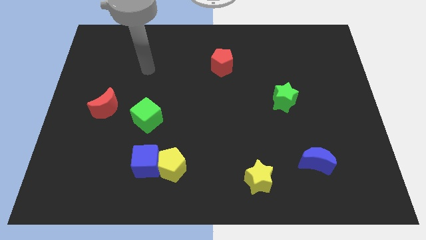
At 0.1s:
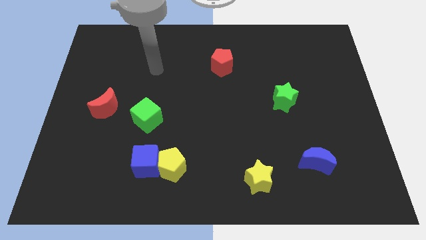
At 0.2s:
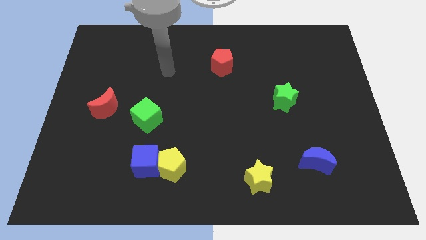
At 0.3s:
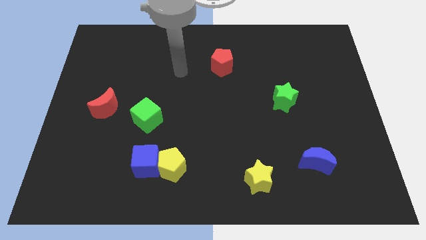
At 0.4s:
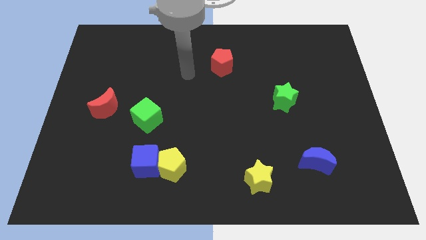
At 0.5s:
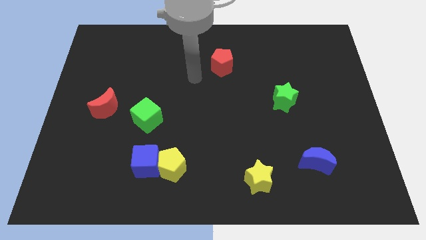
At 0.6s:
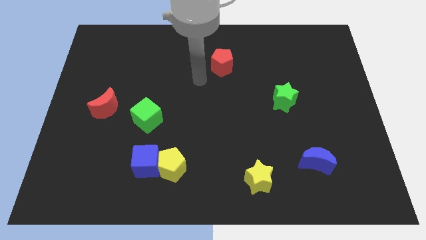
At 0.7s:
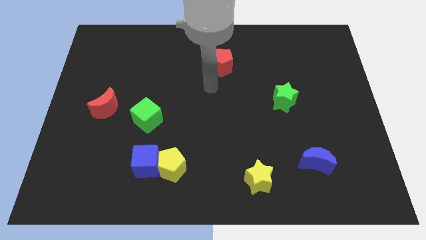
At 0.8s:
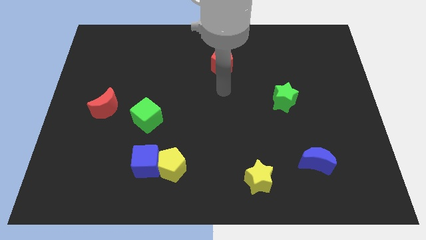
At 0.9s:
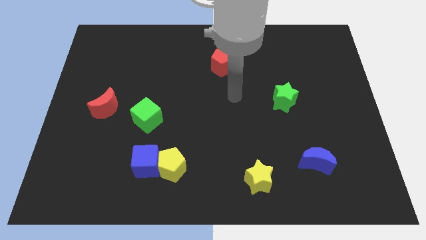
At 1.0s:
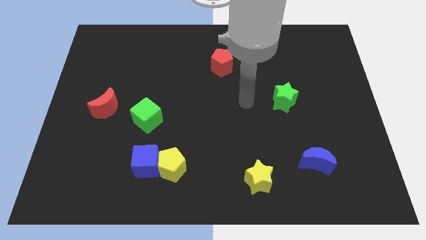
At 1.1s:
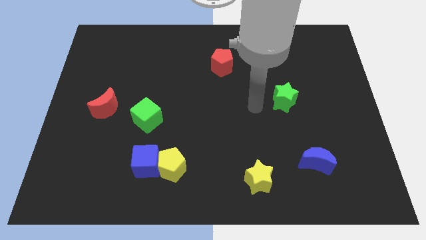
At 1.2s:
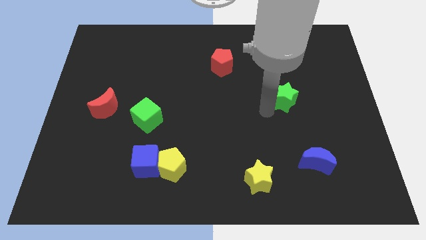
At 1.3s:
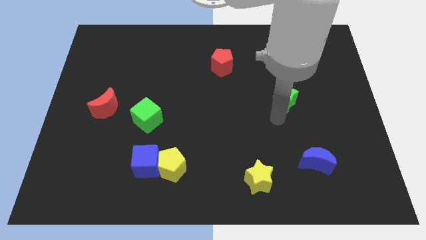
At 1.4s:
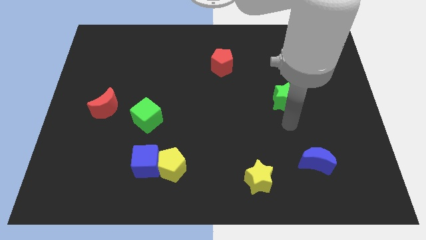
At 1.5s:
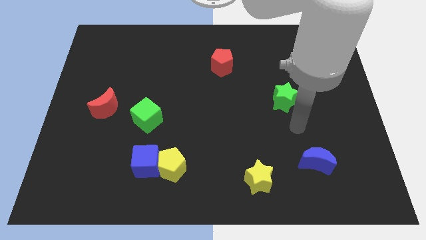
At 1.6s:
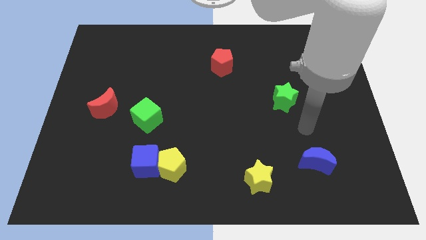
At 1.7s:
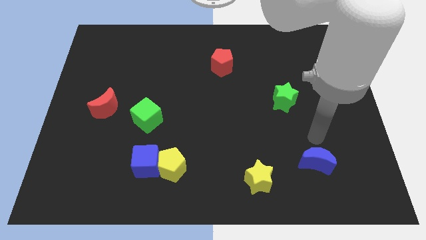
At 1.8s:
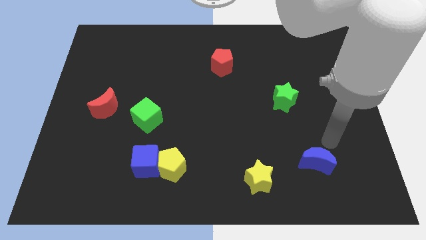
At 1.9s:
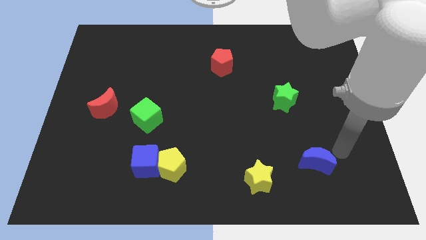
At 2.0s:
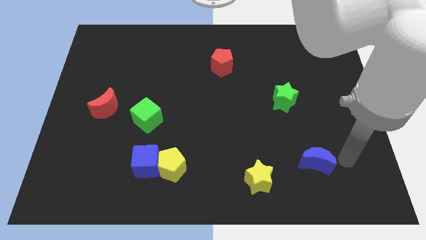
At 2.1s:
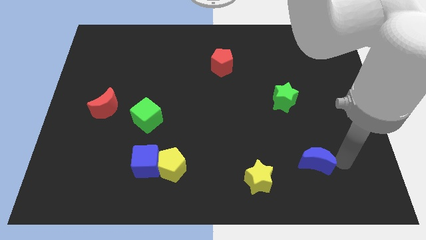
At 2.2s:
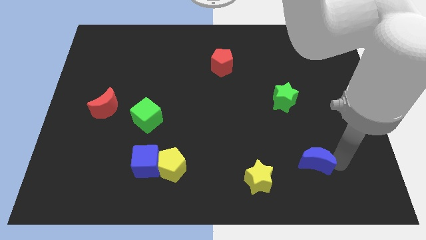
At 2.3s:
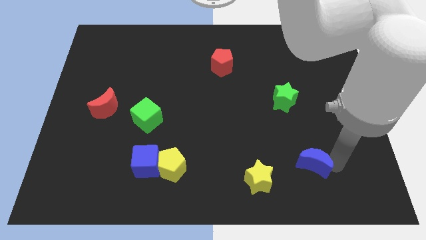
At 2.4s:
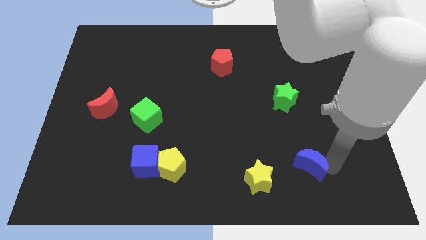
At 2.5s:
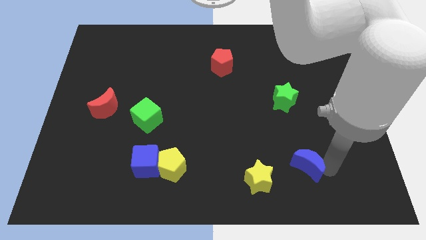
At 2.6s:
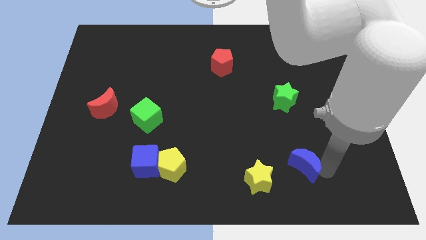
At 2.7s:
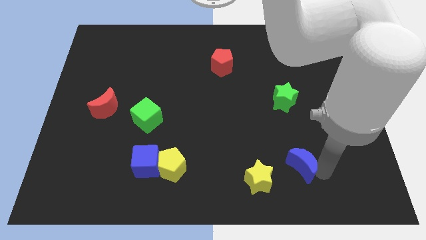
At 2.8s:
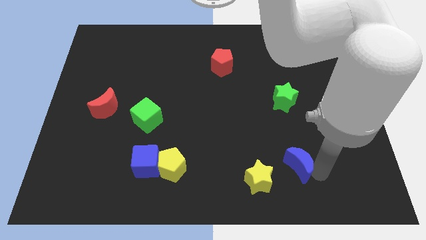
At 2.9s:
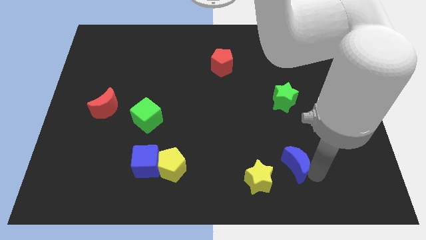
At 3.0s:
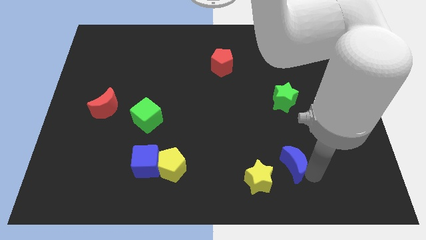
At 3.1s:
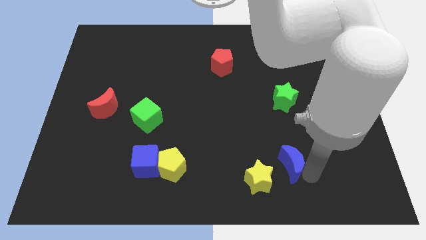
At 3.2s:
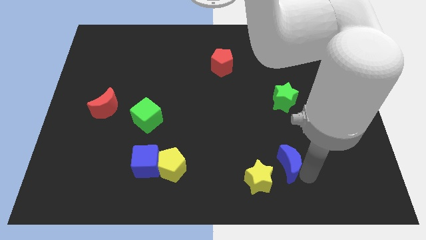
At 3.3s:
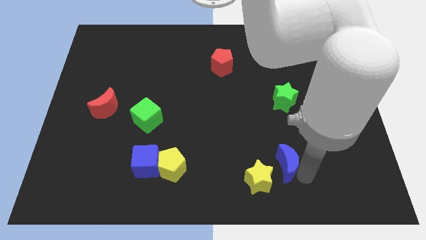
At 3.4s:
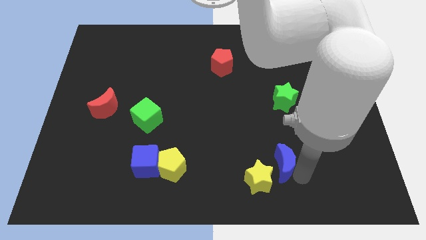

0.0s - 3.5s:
move the blue moon to the left a little

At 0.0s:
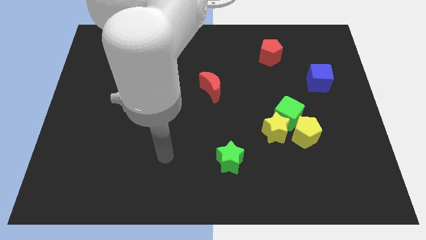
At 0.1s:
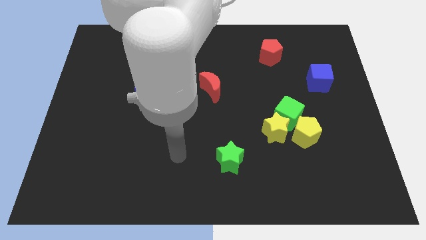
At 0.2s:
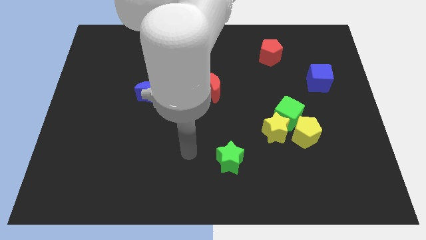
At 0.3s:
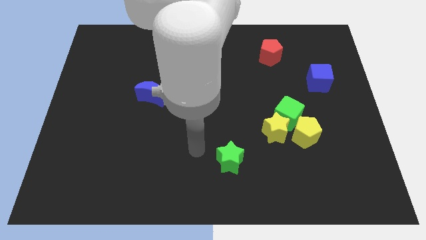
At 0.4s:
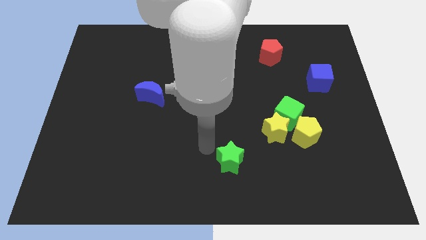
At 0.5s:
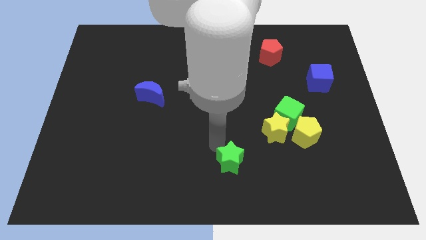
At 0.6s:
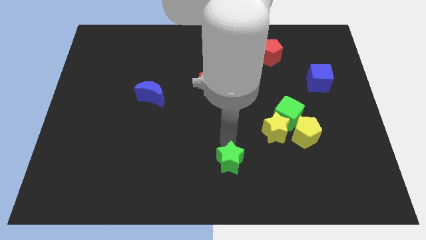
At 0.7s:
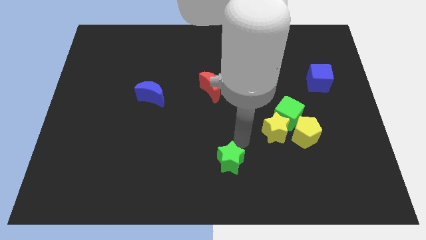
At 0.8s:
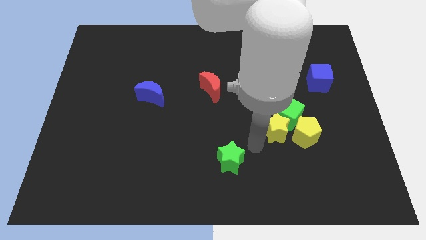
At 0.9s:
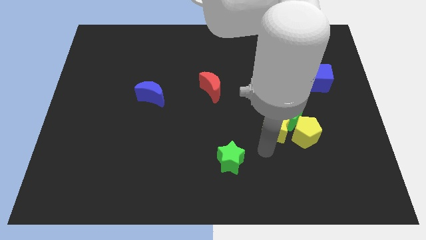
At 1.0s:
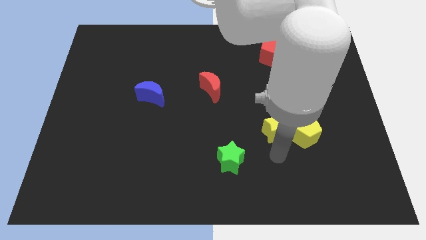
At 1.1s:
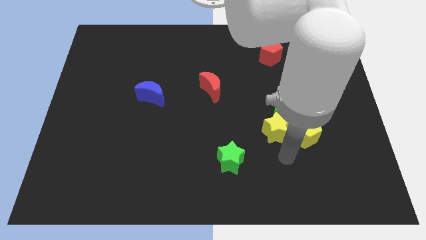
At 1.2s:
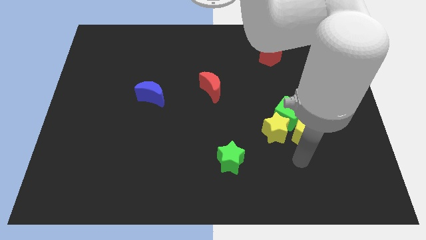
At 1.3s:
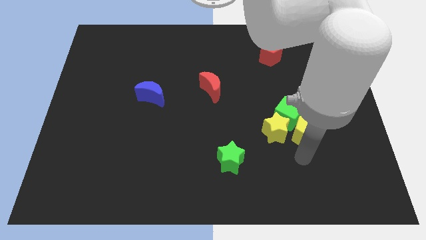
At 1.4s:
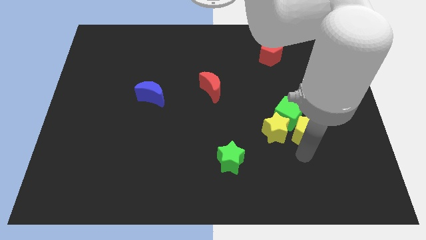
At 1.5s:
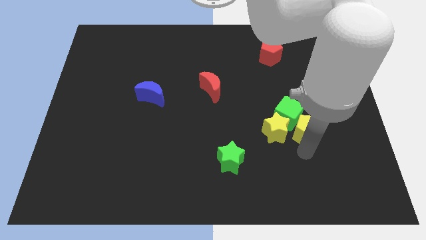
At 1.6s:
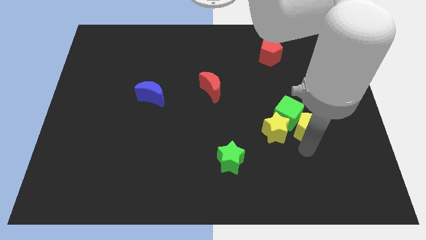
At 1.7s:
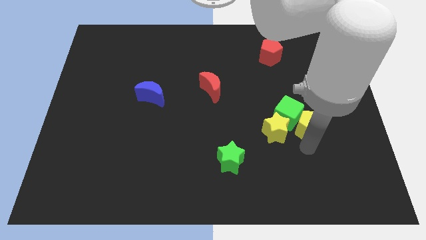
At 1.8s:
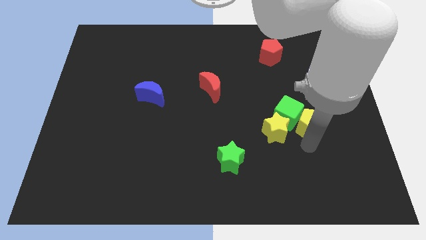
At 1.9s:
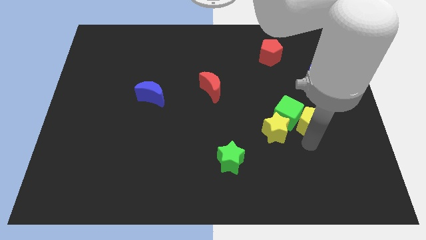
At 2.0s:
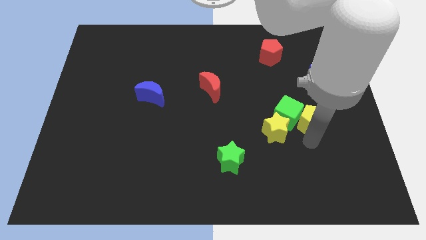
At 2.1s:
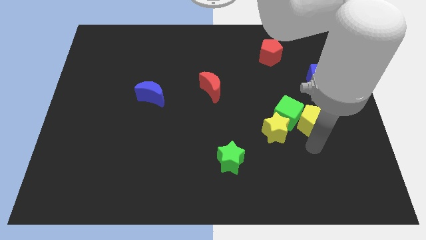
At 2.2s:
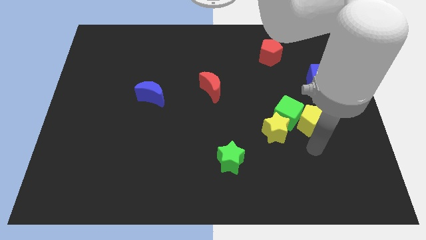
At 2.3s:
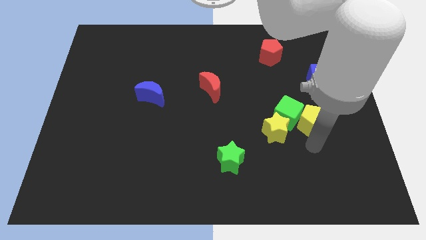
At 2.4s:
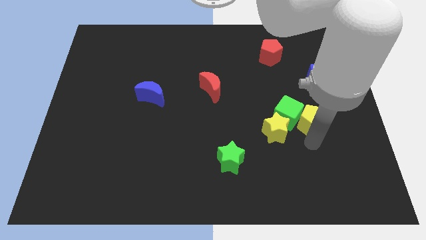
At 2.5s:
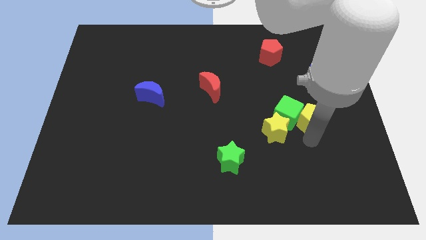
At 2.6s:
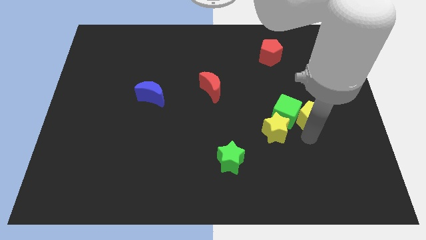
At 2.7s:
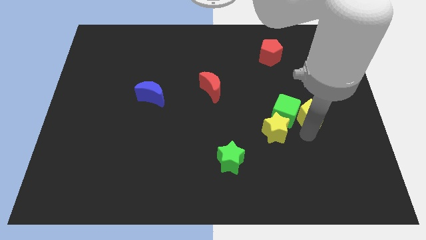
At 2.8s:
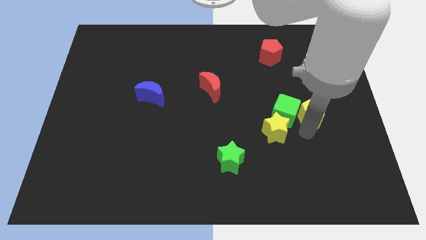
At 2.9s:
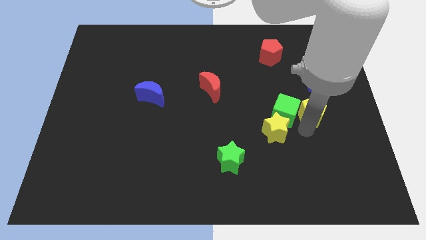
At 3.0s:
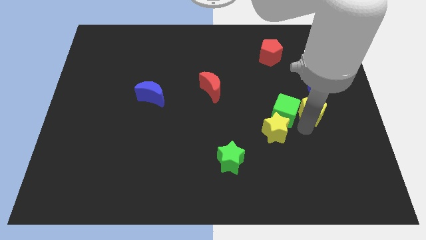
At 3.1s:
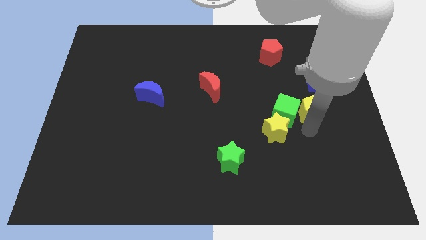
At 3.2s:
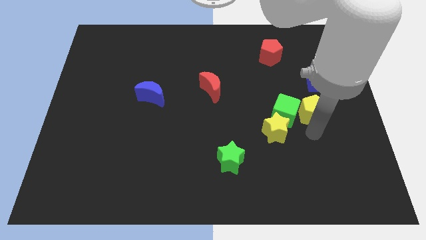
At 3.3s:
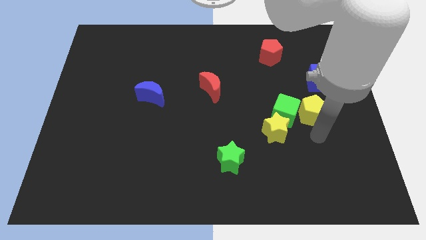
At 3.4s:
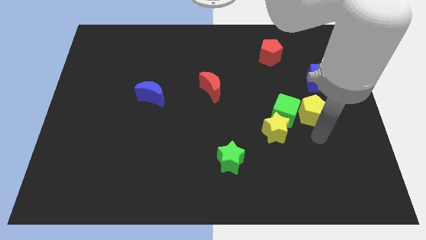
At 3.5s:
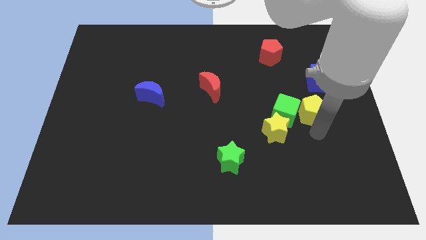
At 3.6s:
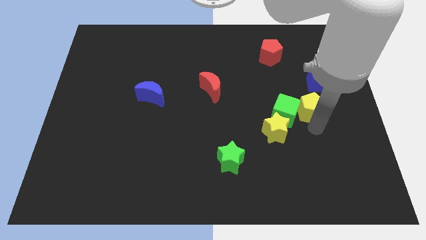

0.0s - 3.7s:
slightly move the yellow pentagon up

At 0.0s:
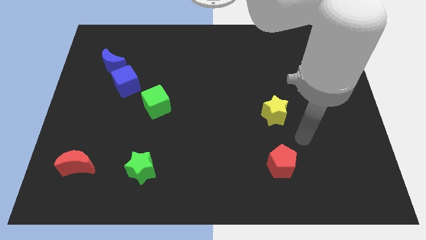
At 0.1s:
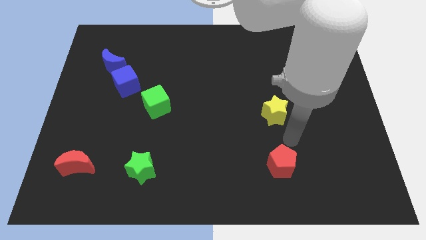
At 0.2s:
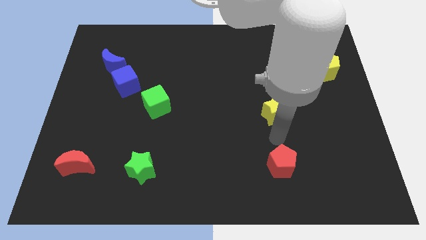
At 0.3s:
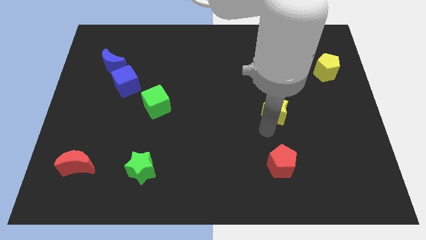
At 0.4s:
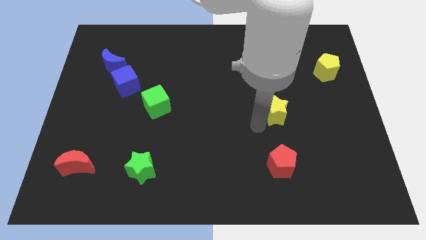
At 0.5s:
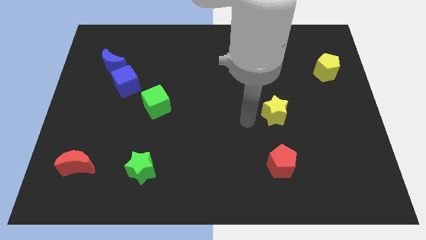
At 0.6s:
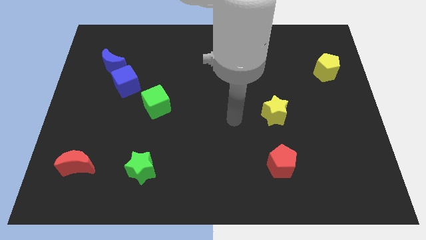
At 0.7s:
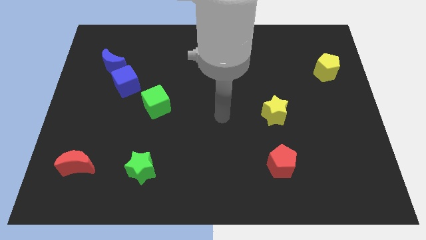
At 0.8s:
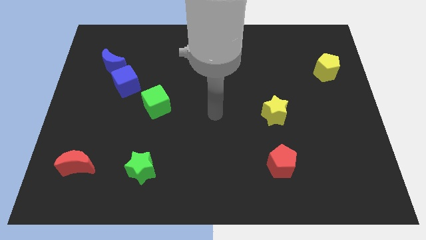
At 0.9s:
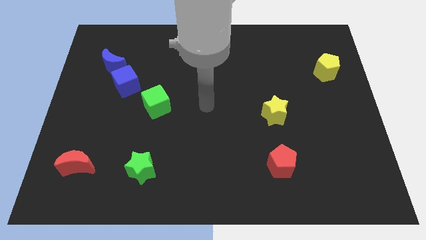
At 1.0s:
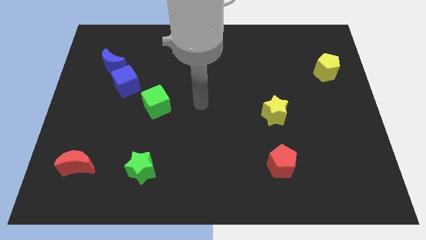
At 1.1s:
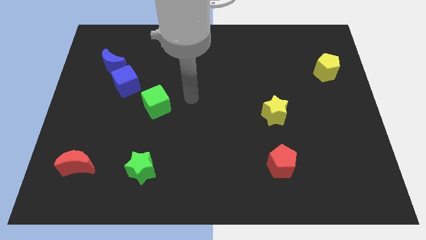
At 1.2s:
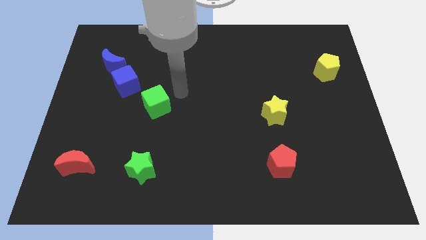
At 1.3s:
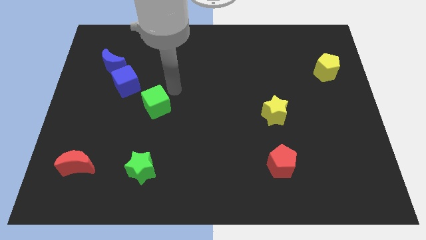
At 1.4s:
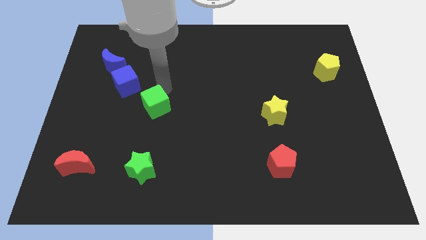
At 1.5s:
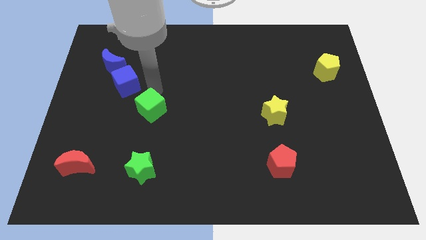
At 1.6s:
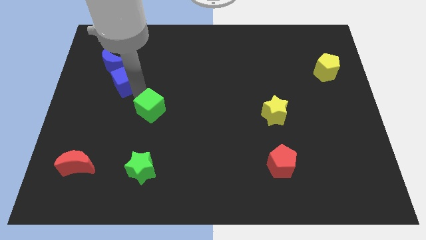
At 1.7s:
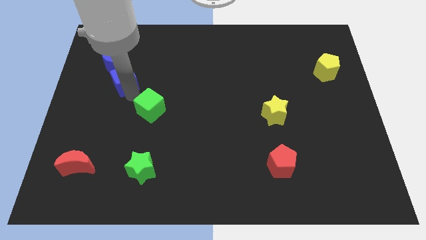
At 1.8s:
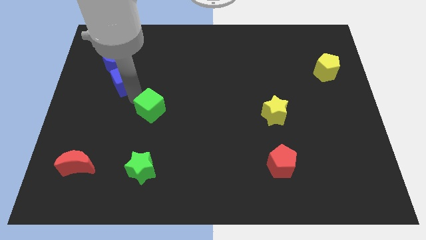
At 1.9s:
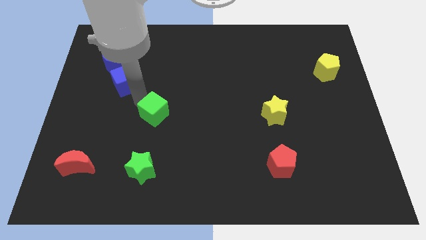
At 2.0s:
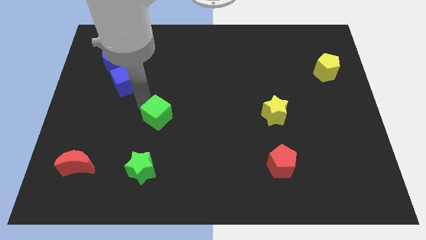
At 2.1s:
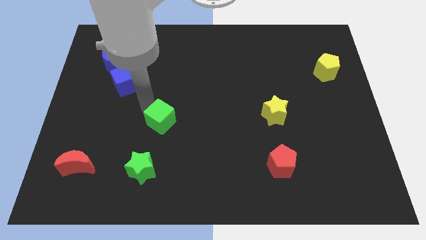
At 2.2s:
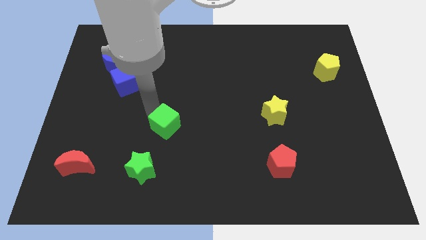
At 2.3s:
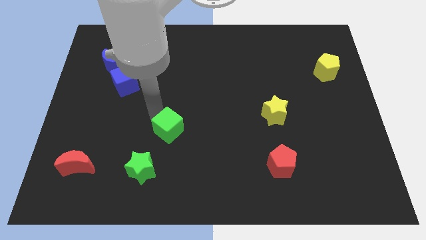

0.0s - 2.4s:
push the green cube a little bit down and to the right
